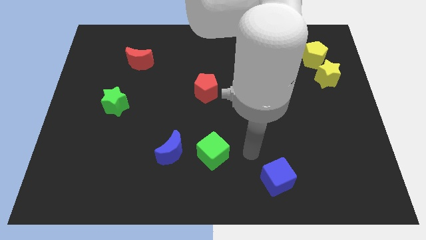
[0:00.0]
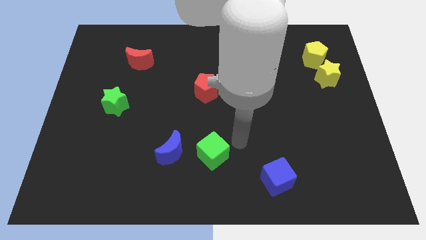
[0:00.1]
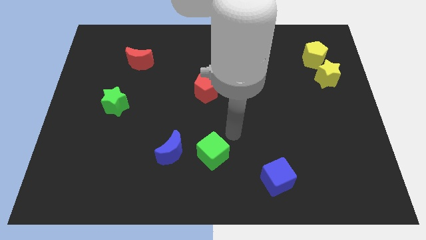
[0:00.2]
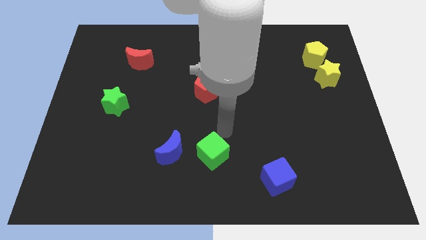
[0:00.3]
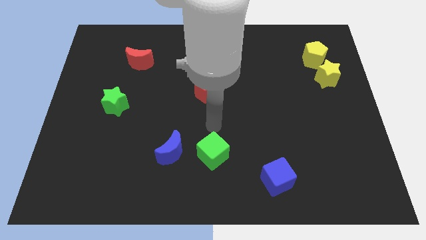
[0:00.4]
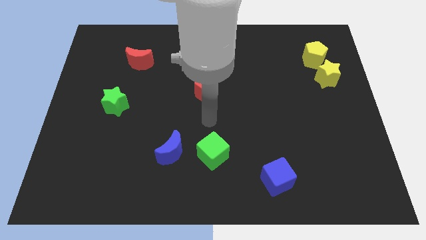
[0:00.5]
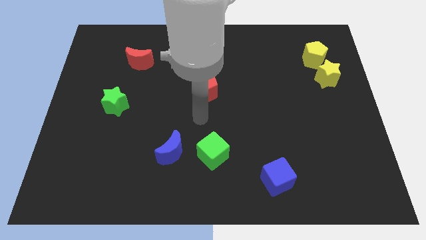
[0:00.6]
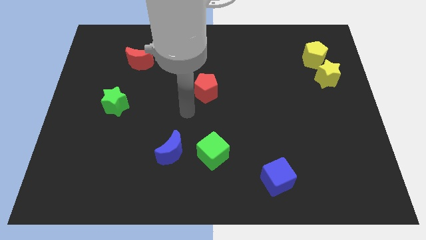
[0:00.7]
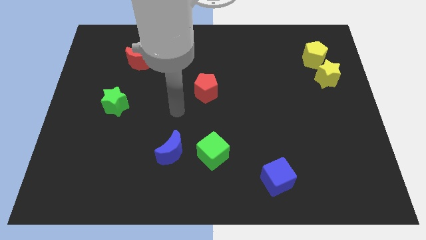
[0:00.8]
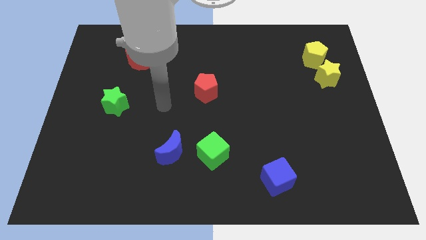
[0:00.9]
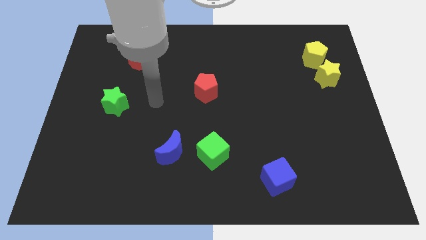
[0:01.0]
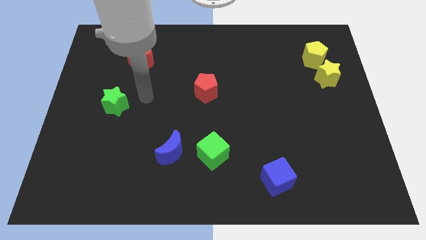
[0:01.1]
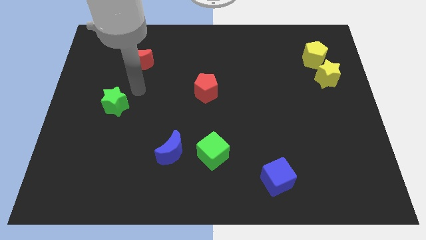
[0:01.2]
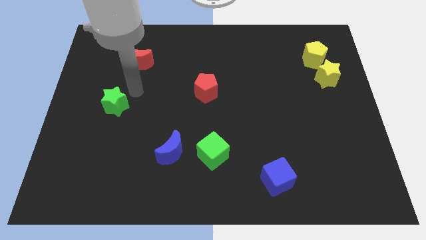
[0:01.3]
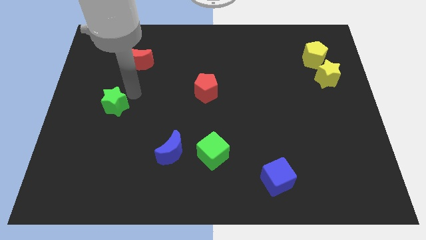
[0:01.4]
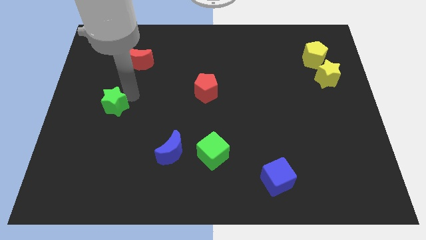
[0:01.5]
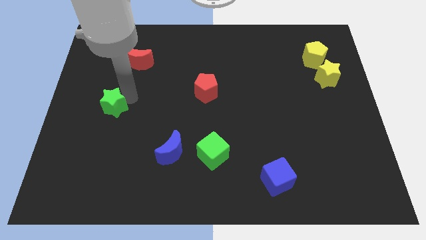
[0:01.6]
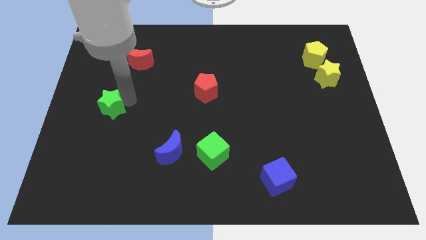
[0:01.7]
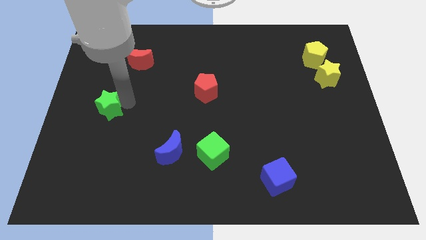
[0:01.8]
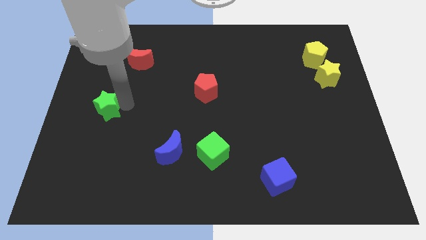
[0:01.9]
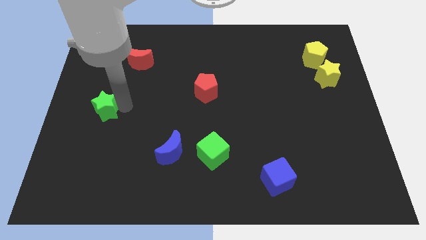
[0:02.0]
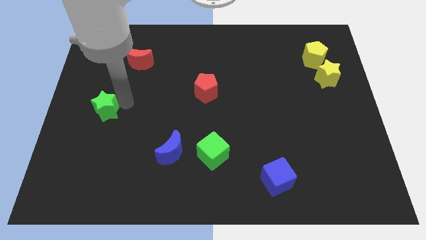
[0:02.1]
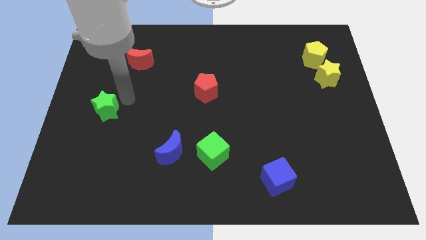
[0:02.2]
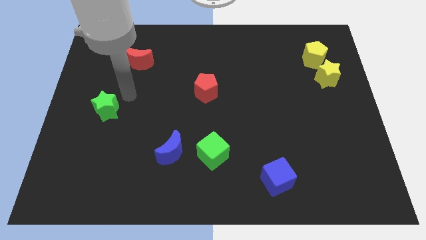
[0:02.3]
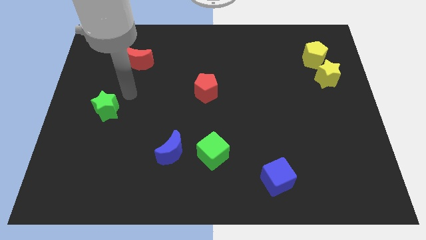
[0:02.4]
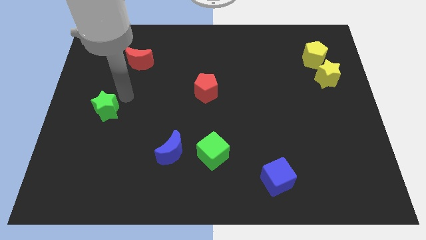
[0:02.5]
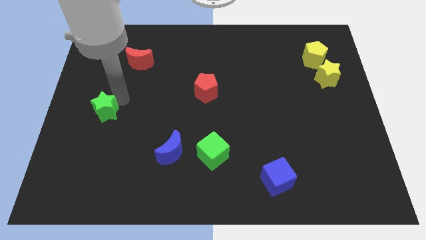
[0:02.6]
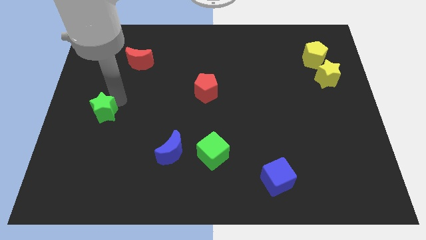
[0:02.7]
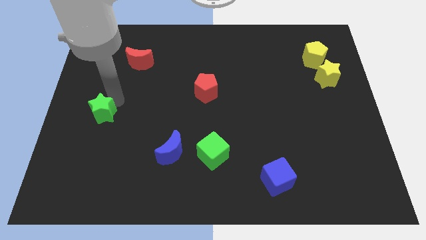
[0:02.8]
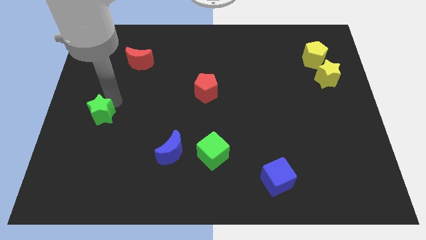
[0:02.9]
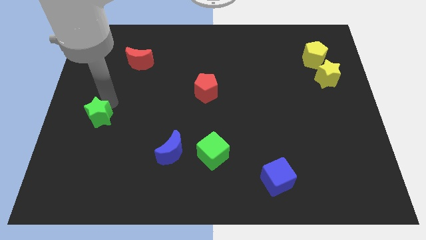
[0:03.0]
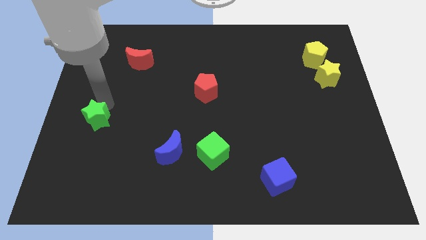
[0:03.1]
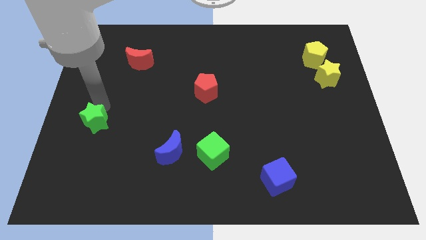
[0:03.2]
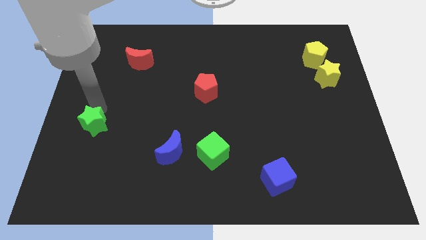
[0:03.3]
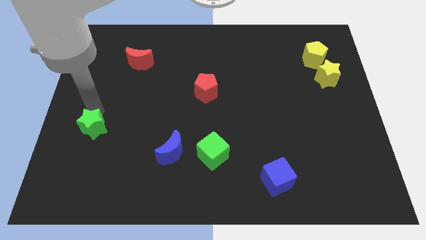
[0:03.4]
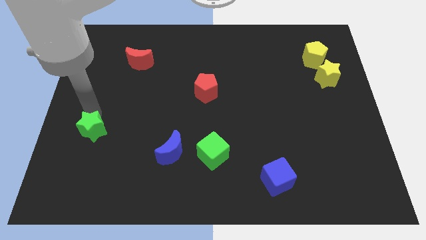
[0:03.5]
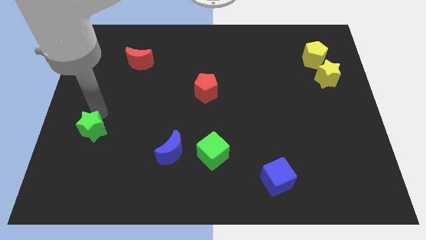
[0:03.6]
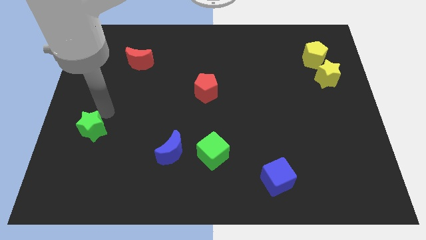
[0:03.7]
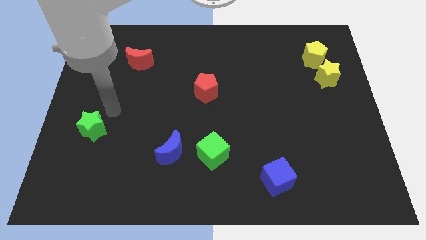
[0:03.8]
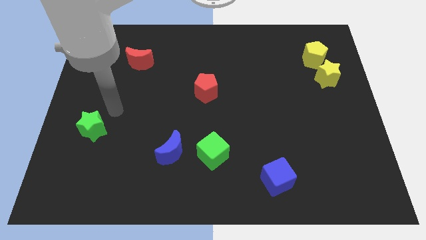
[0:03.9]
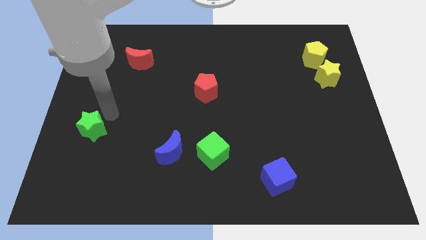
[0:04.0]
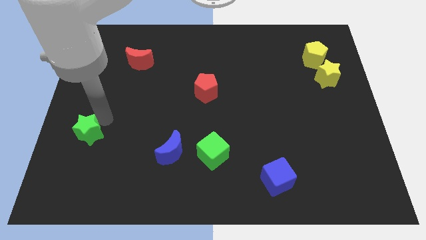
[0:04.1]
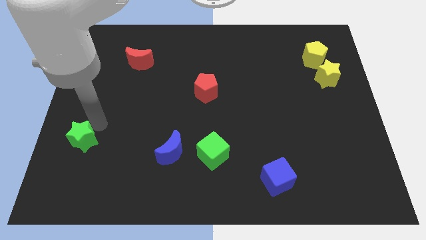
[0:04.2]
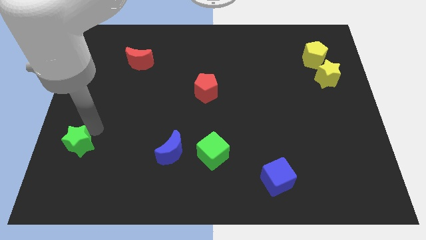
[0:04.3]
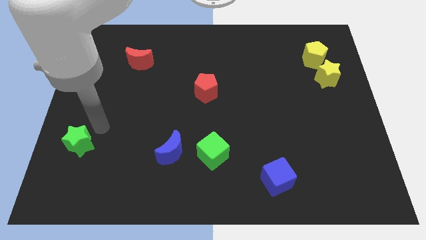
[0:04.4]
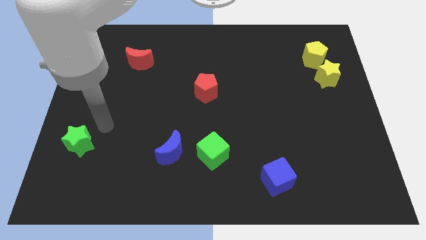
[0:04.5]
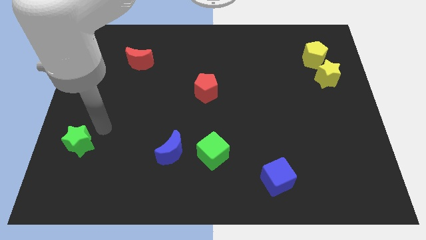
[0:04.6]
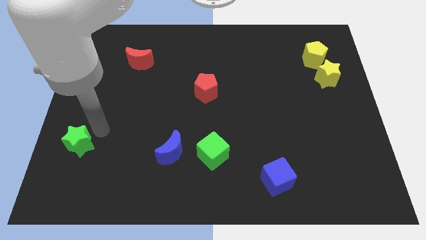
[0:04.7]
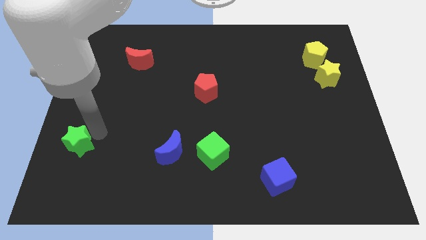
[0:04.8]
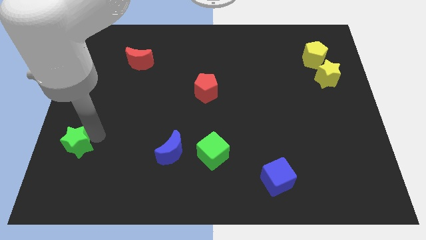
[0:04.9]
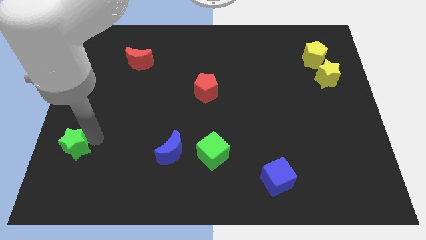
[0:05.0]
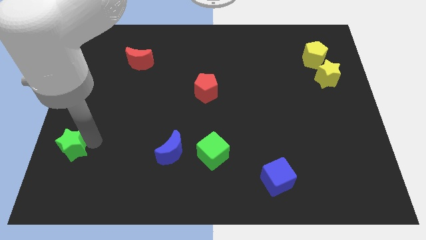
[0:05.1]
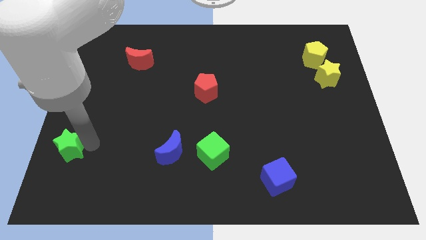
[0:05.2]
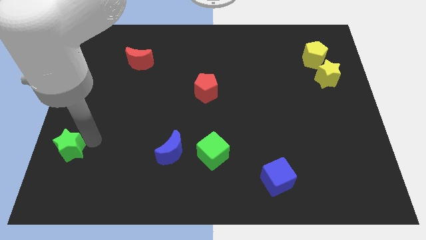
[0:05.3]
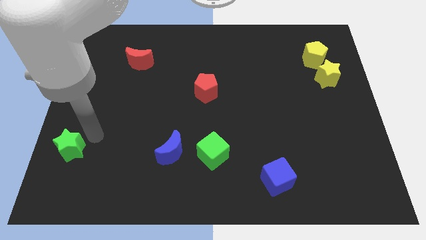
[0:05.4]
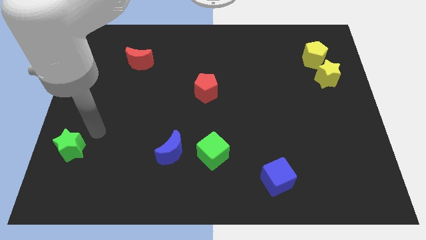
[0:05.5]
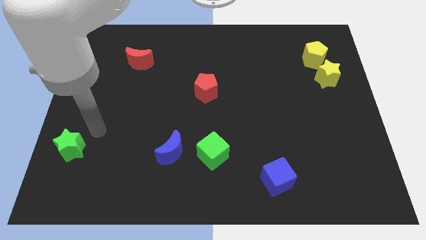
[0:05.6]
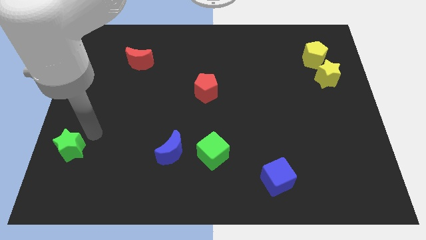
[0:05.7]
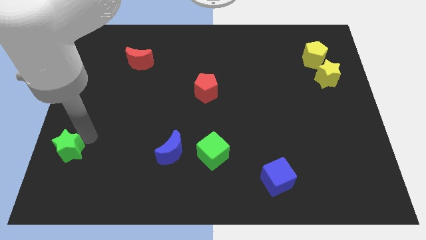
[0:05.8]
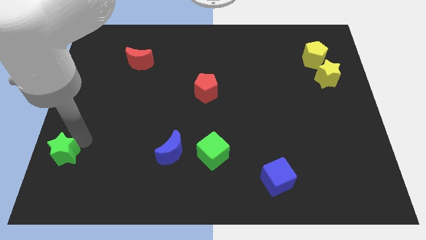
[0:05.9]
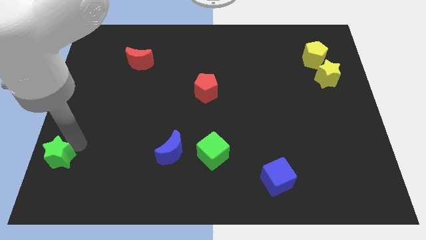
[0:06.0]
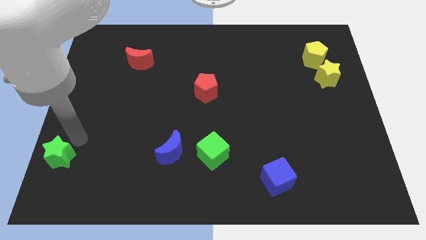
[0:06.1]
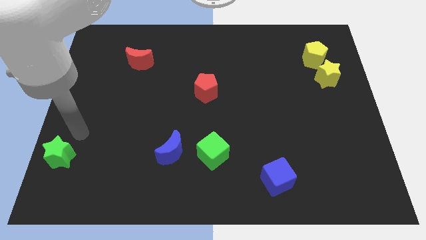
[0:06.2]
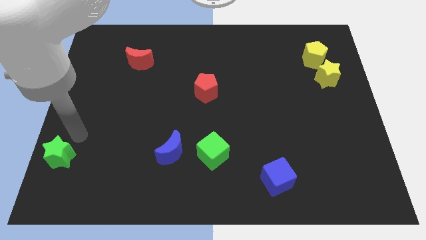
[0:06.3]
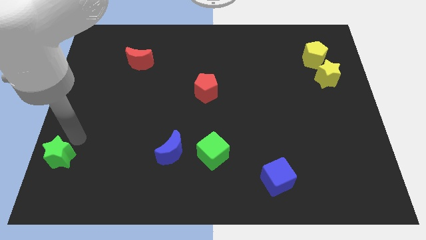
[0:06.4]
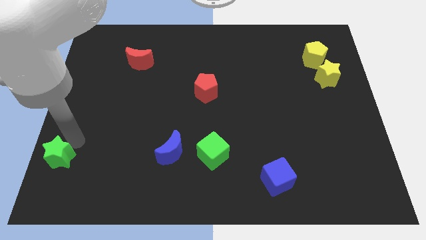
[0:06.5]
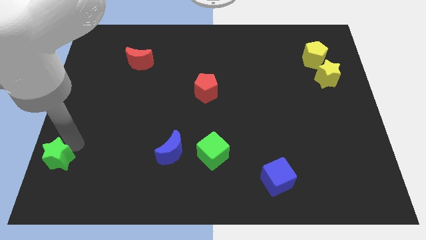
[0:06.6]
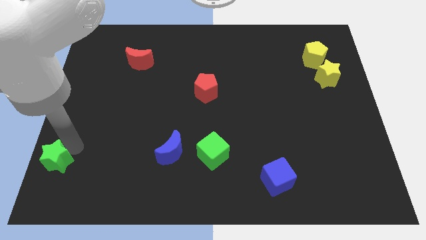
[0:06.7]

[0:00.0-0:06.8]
slide the green star to the bottom left

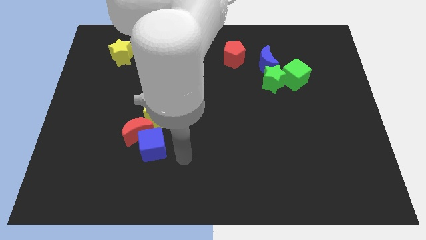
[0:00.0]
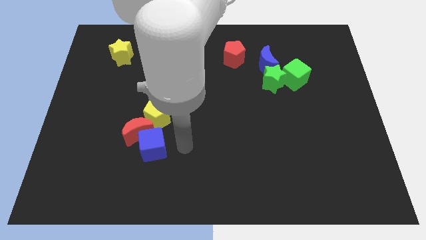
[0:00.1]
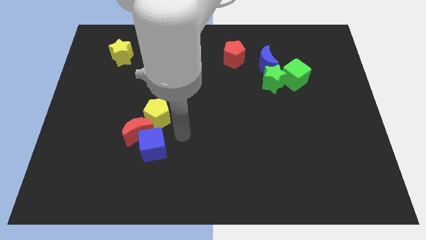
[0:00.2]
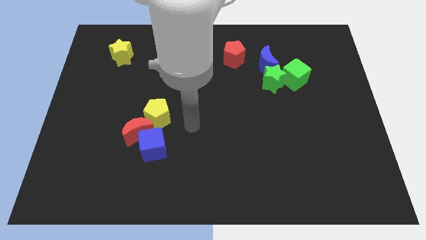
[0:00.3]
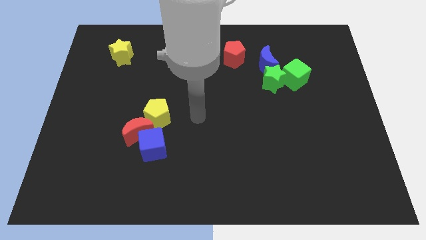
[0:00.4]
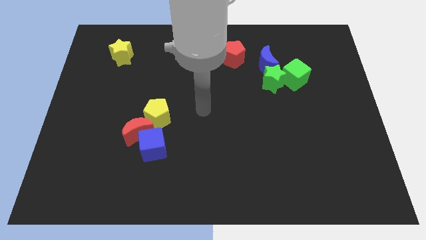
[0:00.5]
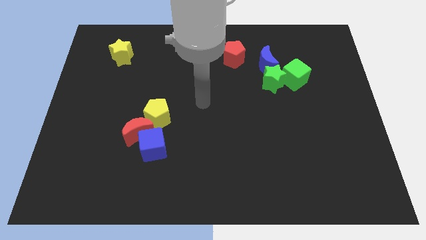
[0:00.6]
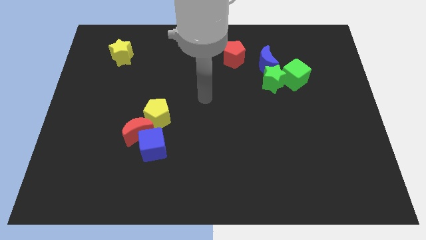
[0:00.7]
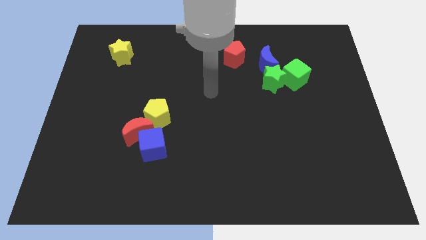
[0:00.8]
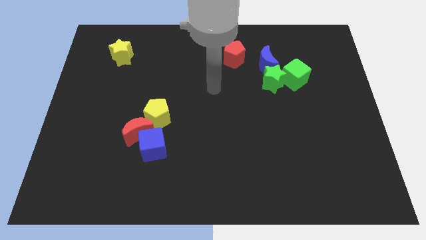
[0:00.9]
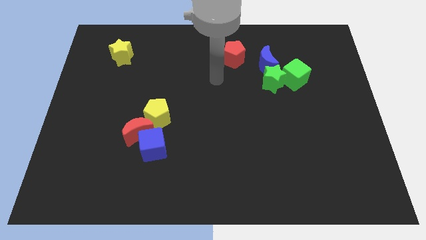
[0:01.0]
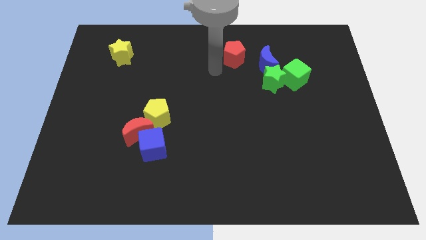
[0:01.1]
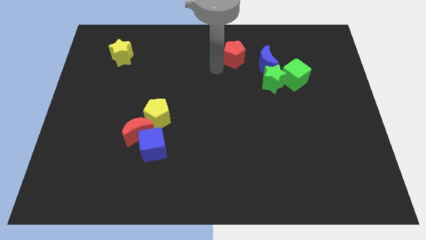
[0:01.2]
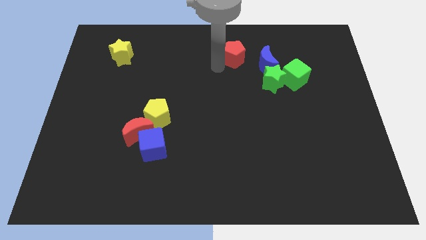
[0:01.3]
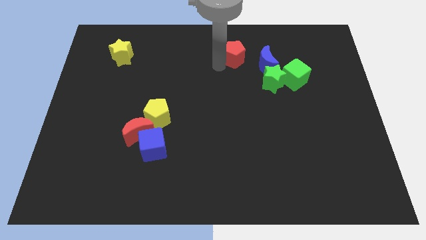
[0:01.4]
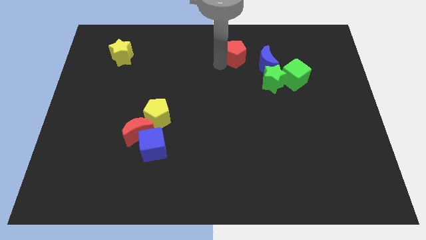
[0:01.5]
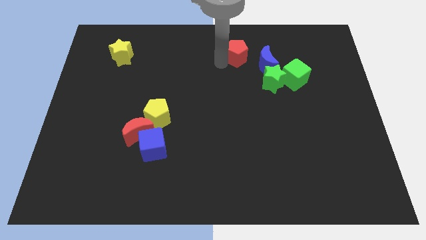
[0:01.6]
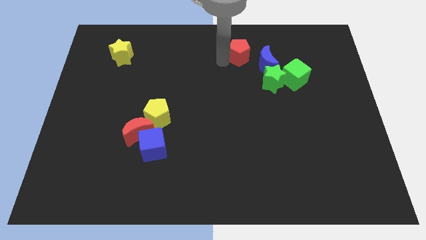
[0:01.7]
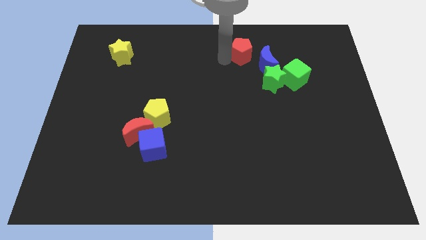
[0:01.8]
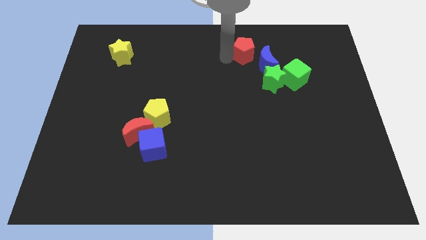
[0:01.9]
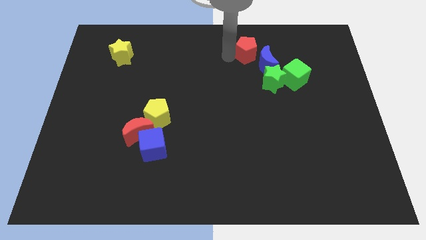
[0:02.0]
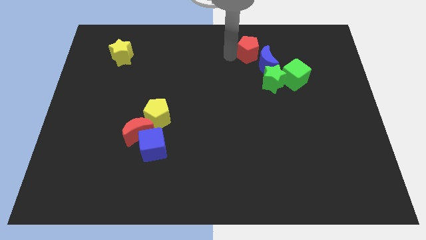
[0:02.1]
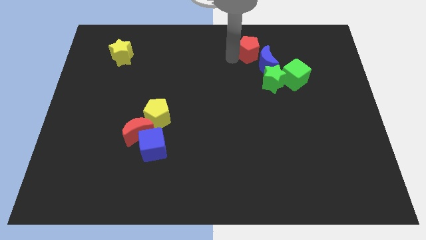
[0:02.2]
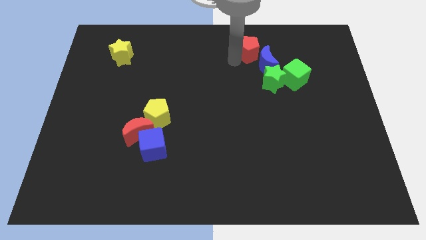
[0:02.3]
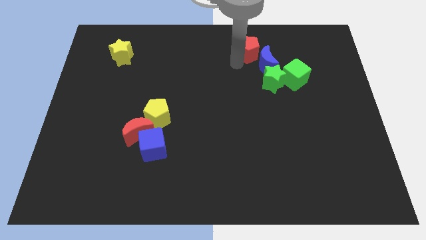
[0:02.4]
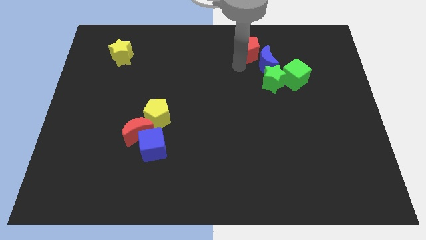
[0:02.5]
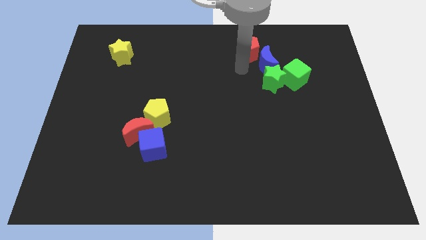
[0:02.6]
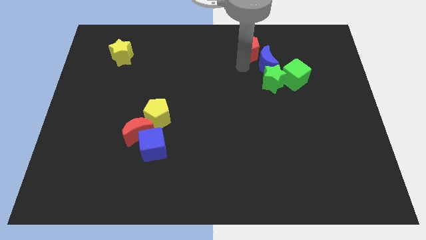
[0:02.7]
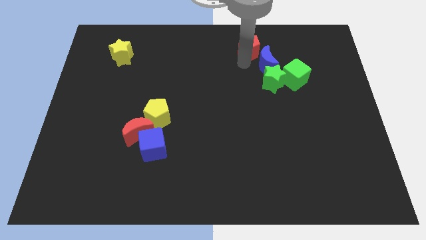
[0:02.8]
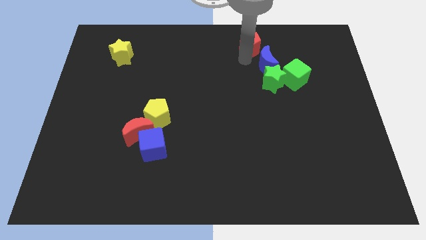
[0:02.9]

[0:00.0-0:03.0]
slide the red pentagon to the top side
